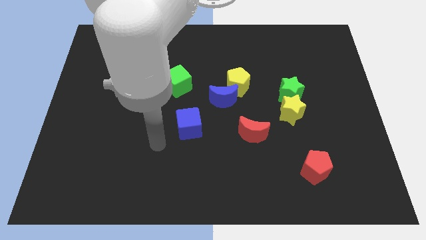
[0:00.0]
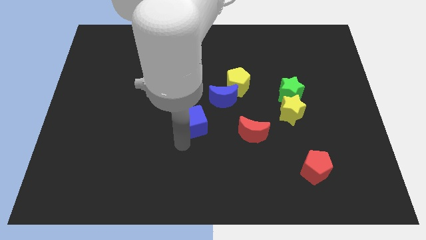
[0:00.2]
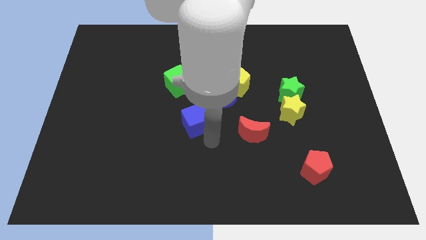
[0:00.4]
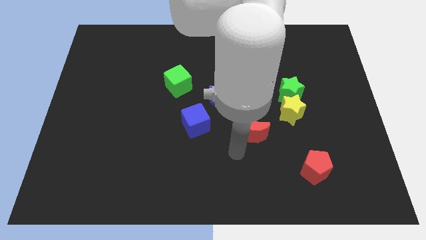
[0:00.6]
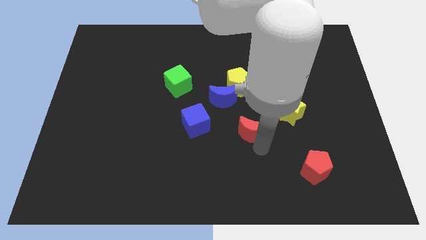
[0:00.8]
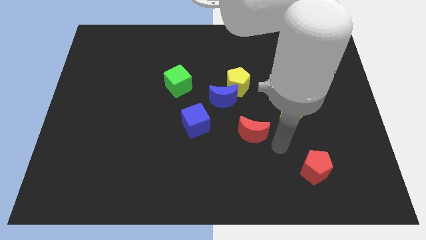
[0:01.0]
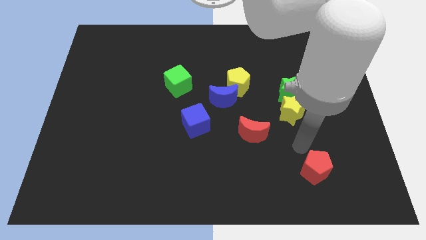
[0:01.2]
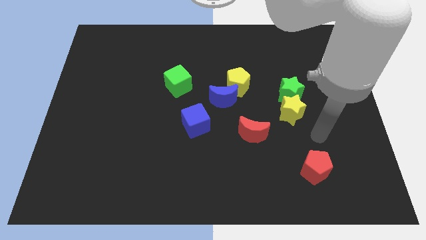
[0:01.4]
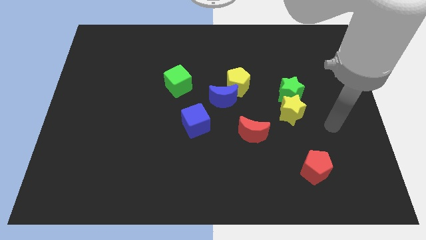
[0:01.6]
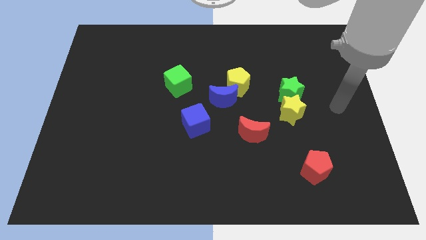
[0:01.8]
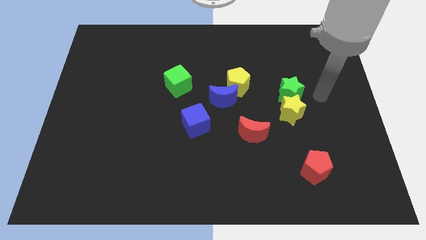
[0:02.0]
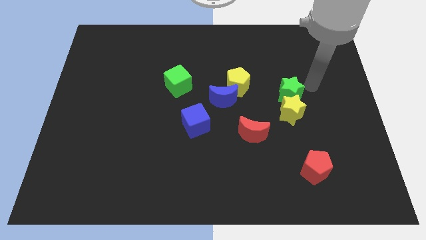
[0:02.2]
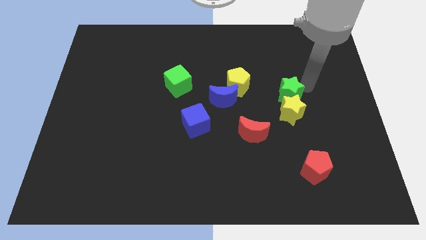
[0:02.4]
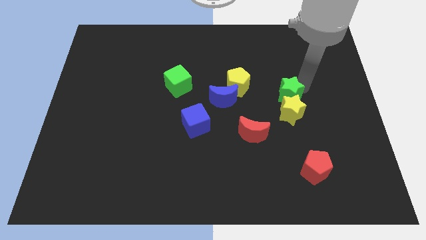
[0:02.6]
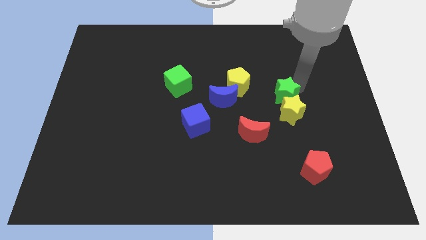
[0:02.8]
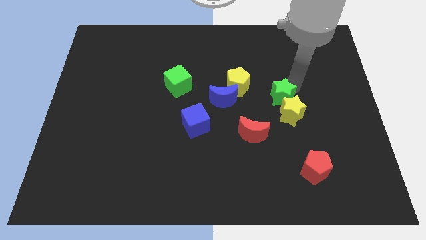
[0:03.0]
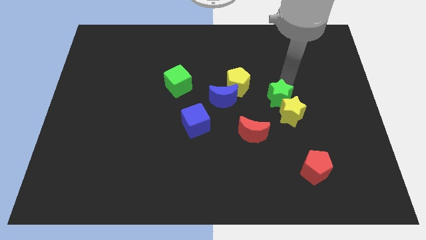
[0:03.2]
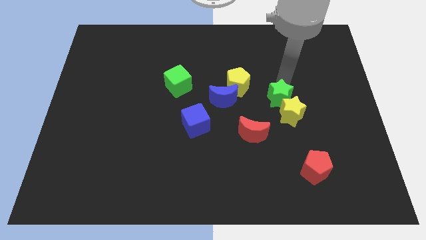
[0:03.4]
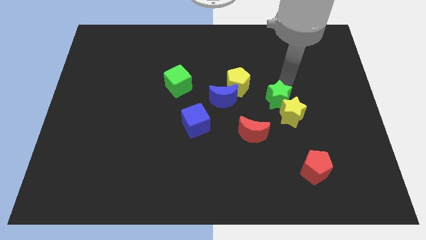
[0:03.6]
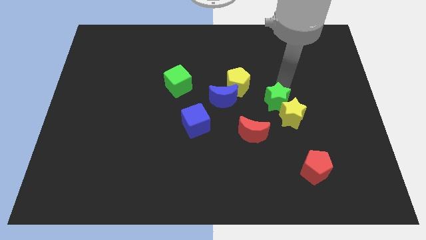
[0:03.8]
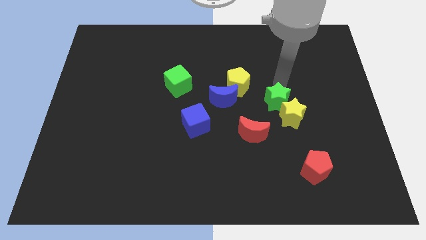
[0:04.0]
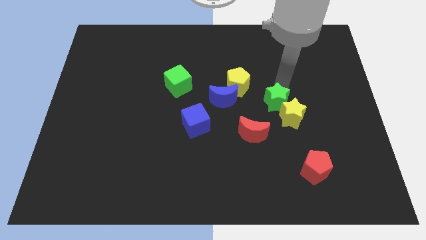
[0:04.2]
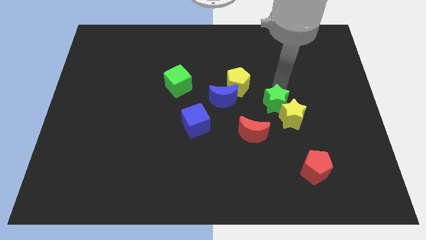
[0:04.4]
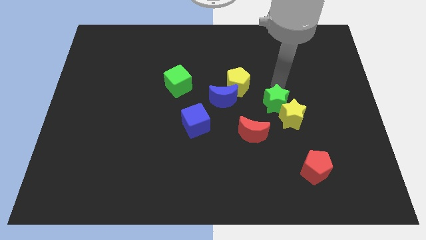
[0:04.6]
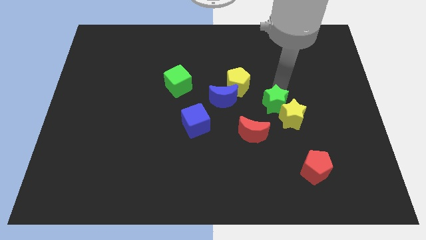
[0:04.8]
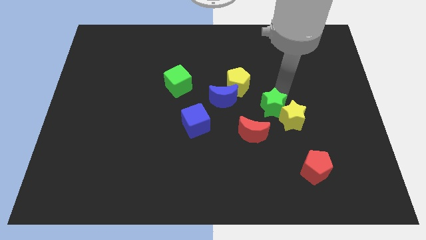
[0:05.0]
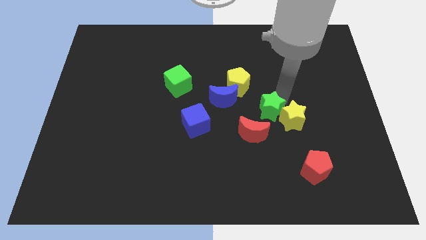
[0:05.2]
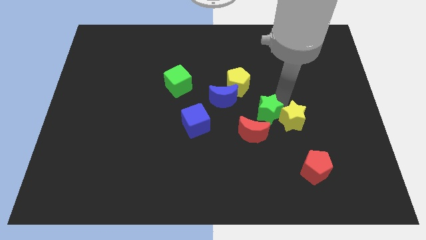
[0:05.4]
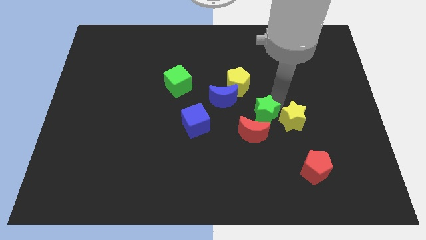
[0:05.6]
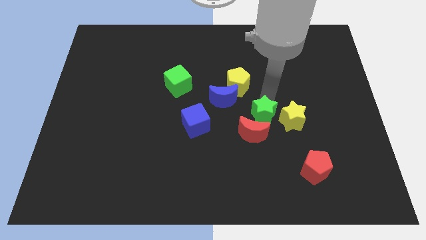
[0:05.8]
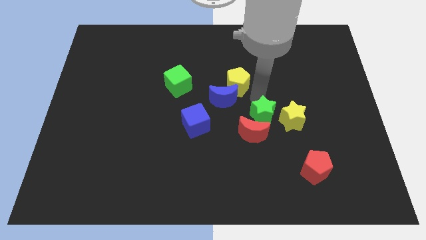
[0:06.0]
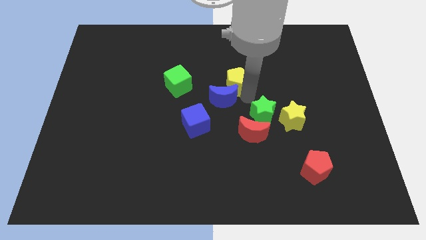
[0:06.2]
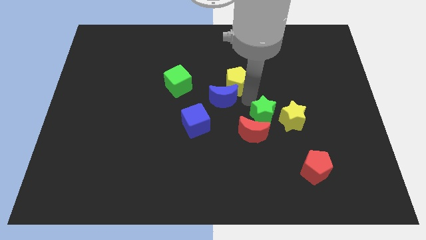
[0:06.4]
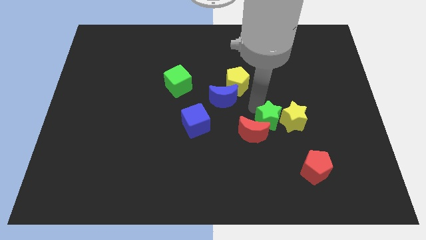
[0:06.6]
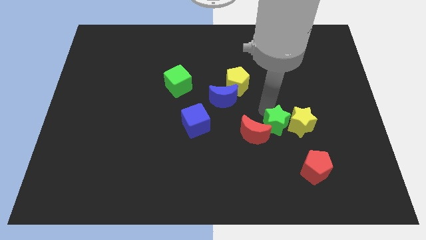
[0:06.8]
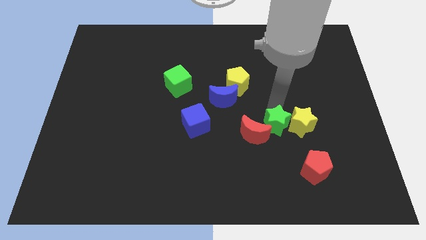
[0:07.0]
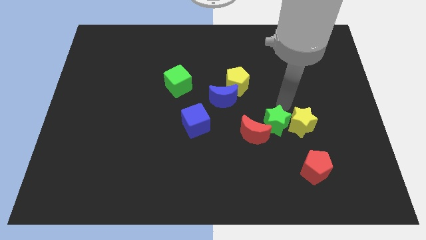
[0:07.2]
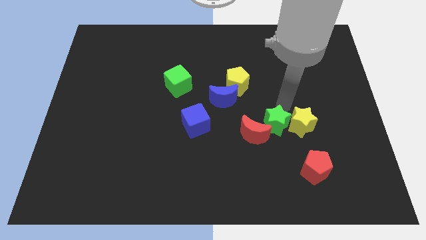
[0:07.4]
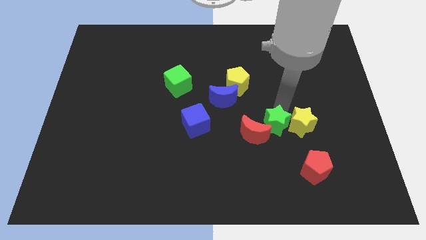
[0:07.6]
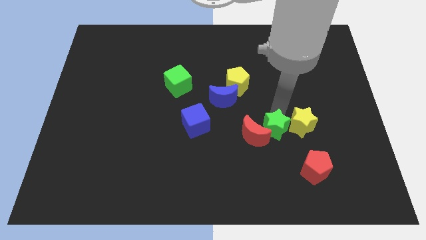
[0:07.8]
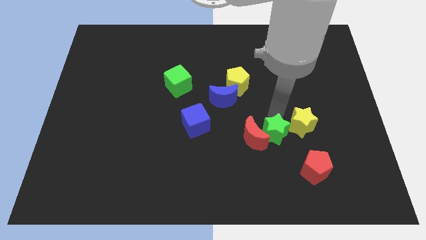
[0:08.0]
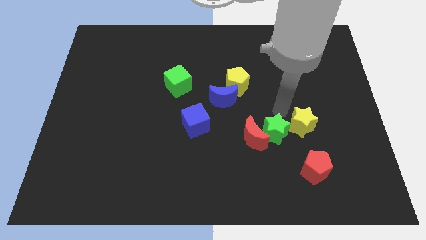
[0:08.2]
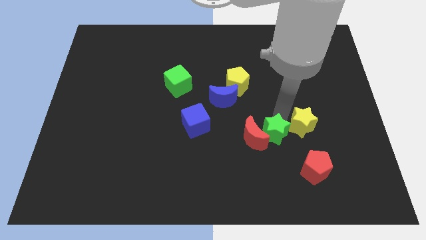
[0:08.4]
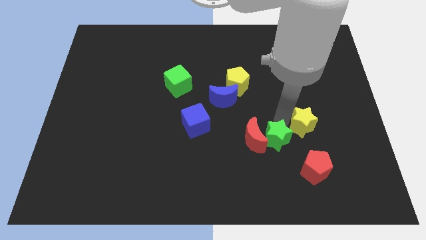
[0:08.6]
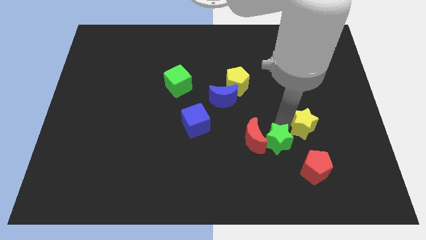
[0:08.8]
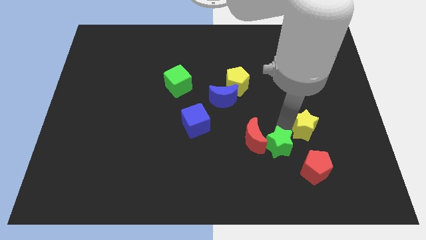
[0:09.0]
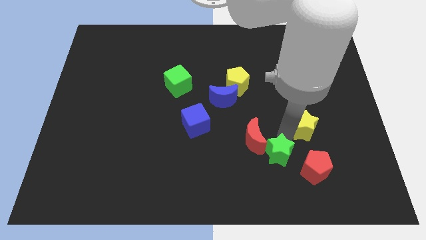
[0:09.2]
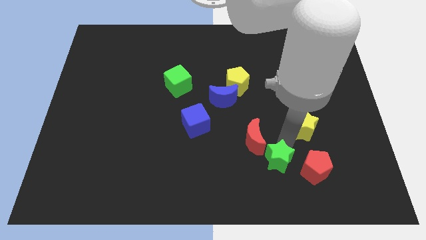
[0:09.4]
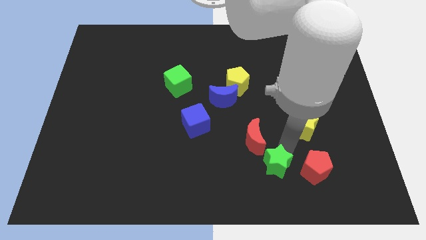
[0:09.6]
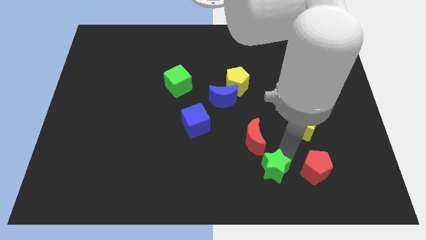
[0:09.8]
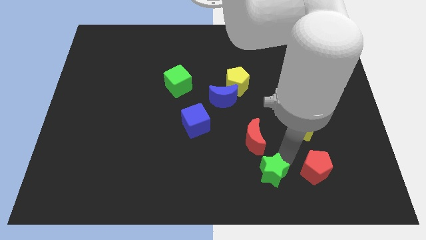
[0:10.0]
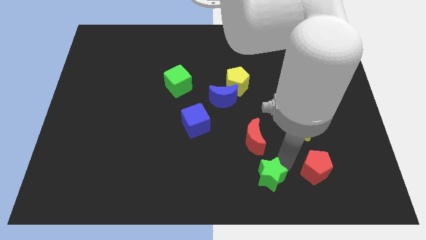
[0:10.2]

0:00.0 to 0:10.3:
push the green star to the bottom

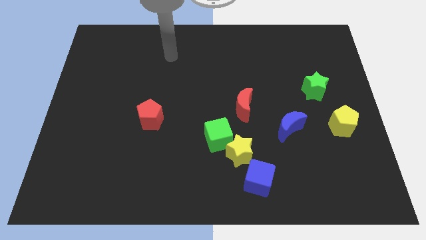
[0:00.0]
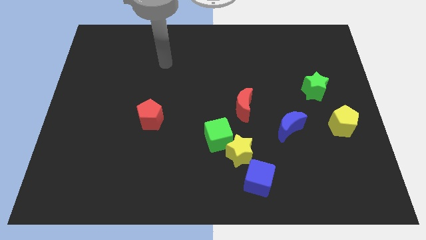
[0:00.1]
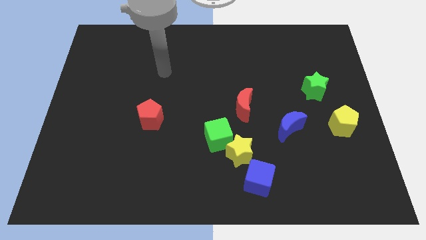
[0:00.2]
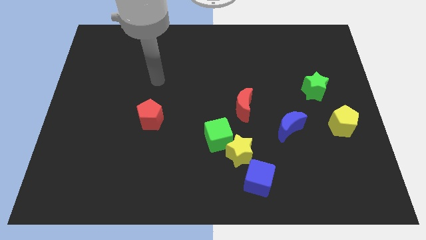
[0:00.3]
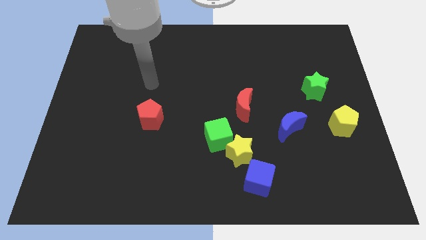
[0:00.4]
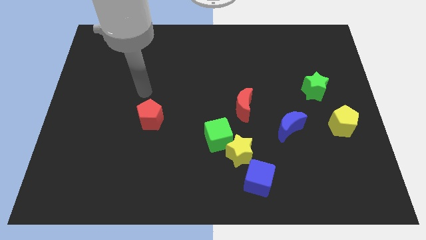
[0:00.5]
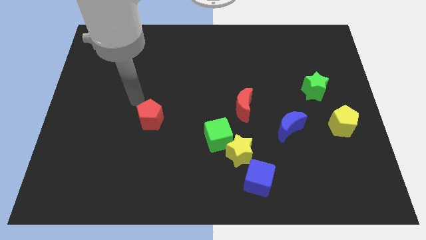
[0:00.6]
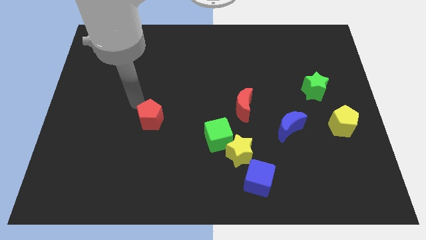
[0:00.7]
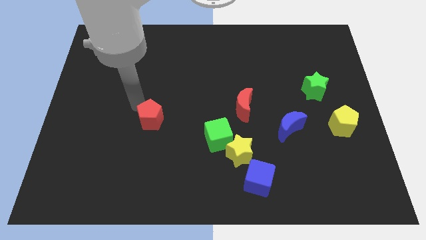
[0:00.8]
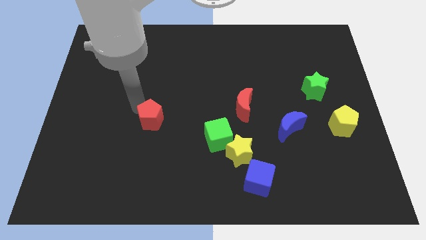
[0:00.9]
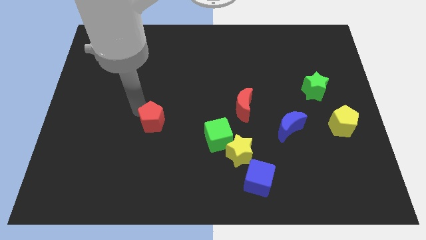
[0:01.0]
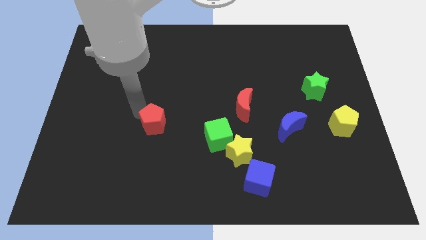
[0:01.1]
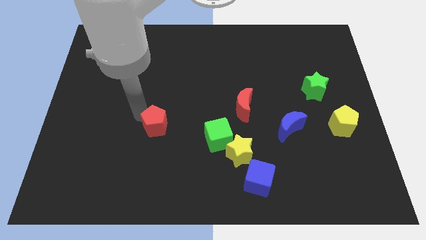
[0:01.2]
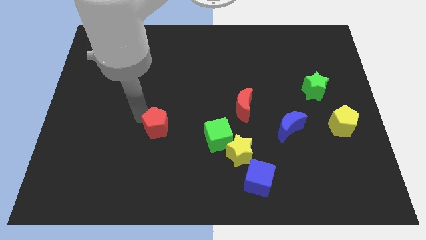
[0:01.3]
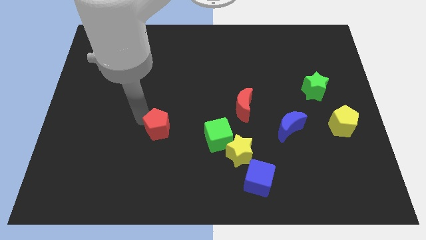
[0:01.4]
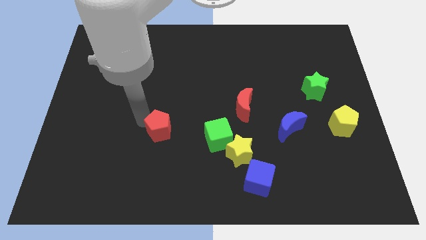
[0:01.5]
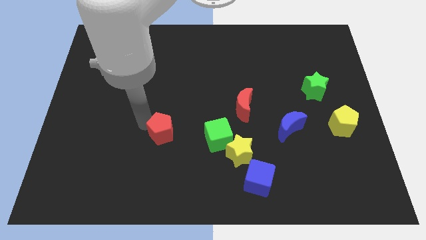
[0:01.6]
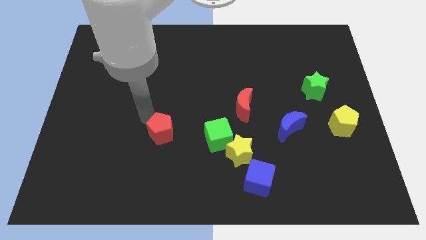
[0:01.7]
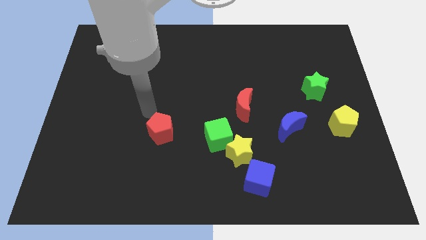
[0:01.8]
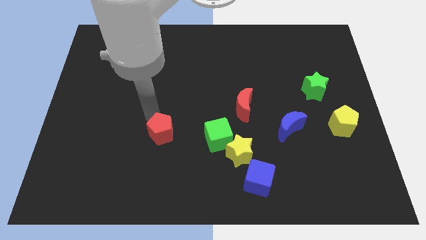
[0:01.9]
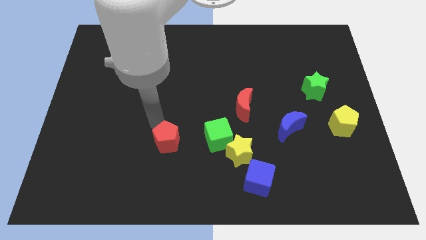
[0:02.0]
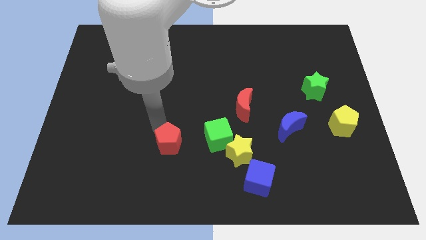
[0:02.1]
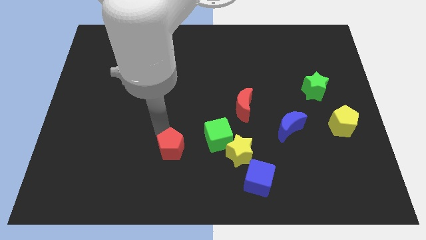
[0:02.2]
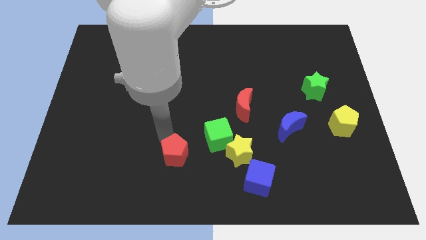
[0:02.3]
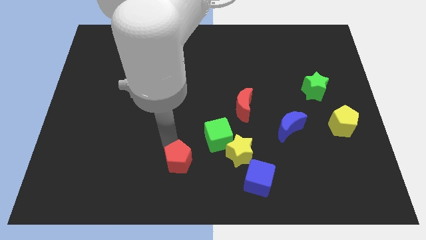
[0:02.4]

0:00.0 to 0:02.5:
move the red pentagon to the bottom side
